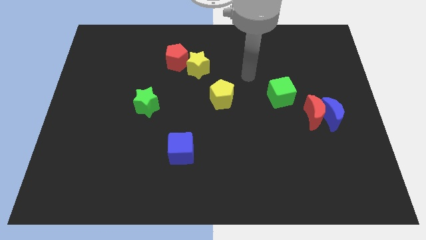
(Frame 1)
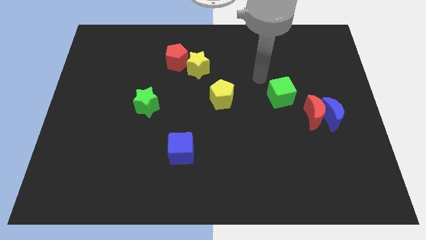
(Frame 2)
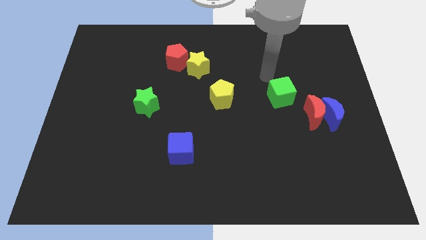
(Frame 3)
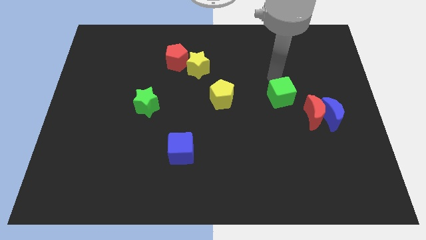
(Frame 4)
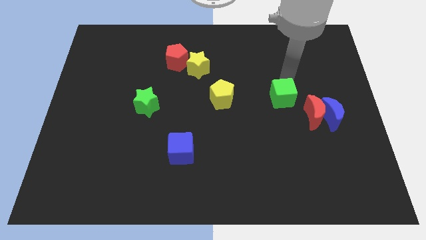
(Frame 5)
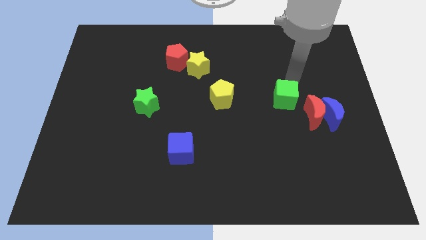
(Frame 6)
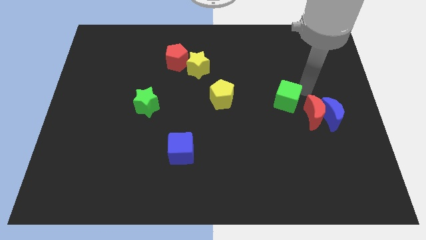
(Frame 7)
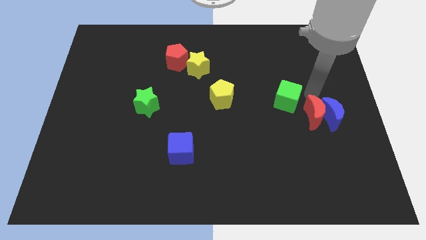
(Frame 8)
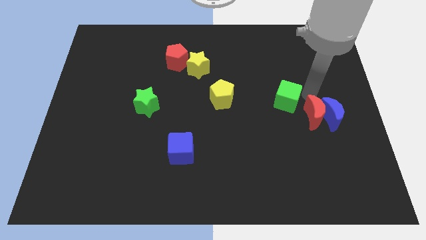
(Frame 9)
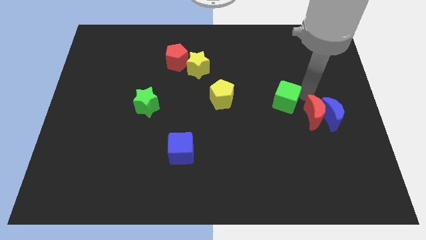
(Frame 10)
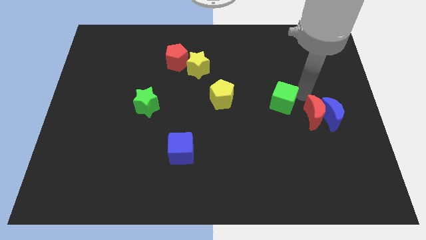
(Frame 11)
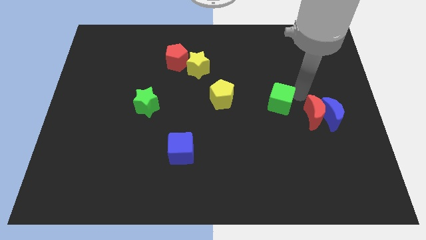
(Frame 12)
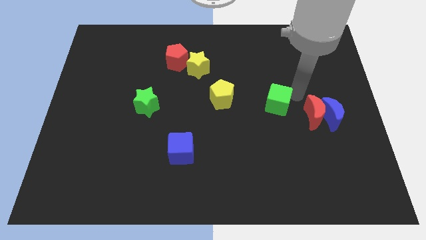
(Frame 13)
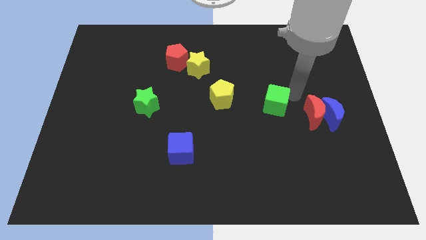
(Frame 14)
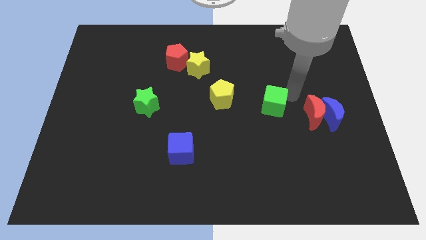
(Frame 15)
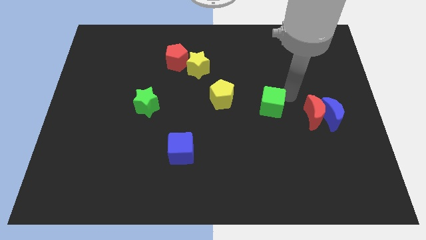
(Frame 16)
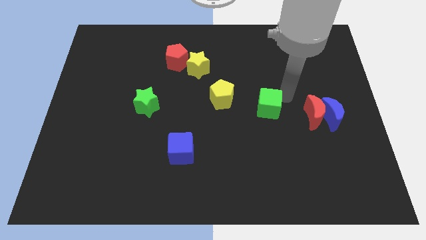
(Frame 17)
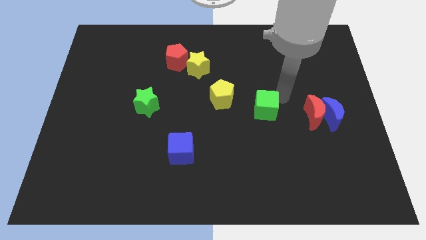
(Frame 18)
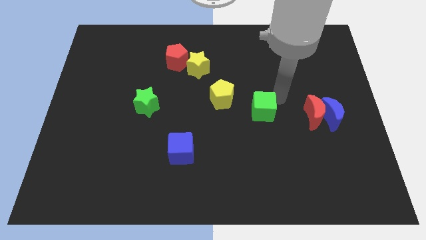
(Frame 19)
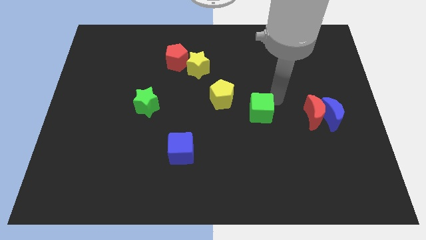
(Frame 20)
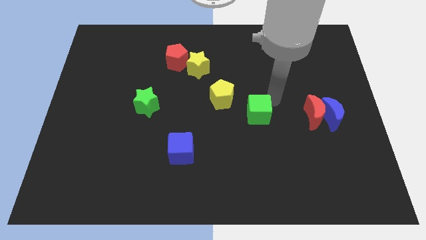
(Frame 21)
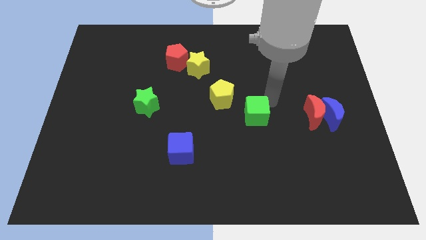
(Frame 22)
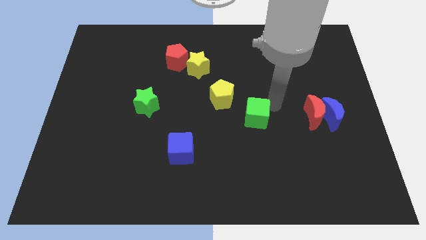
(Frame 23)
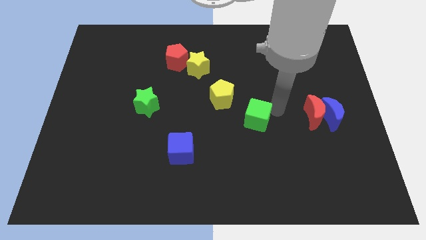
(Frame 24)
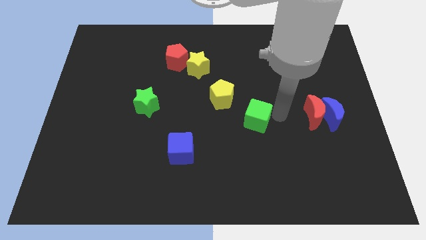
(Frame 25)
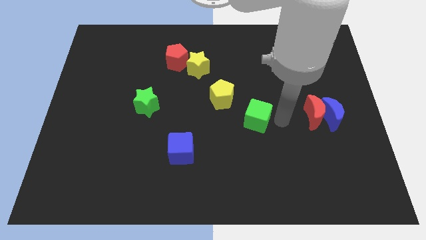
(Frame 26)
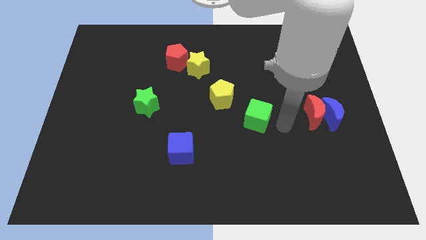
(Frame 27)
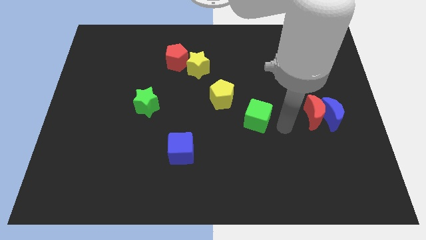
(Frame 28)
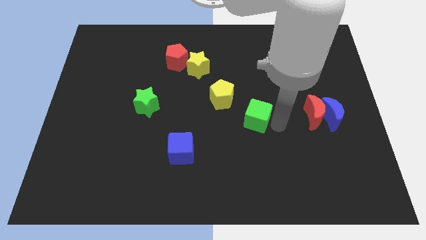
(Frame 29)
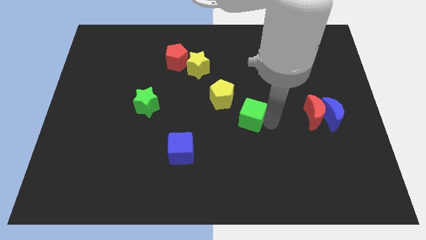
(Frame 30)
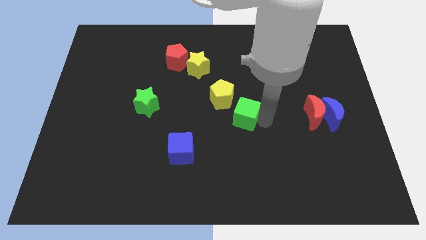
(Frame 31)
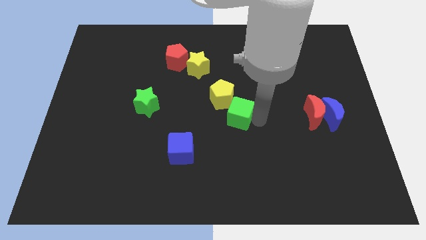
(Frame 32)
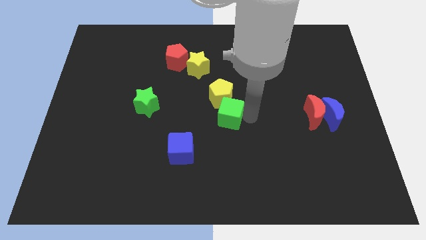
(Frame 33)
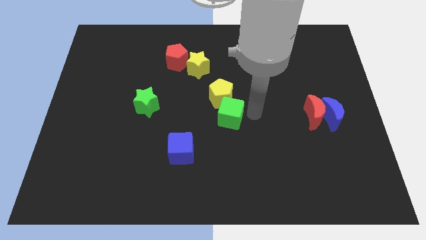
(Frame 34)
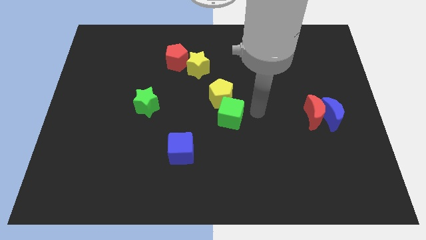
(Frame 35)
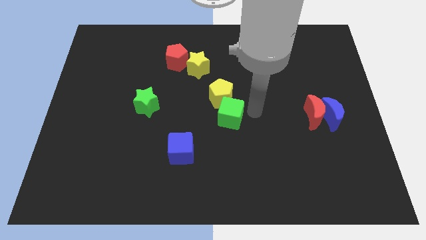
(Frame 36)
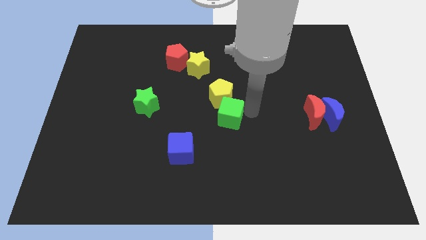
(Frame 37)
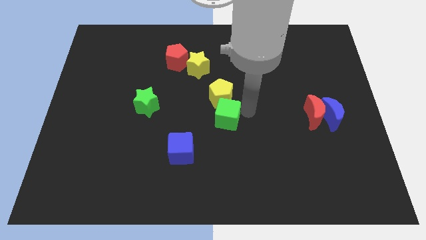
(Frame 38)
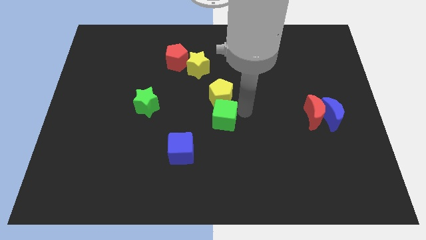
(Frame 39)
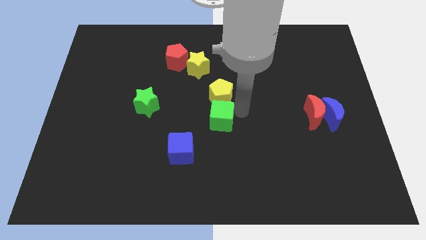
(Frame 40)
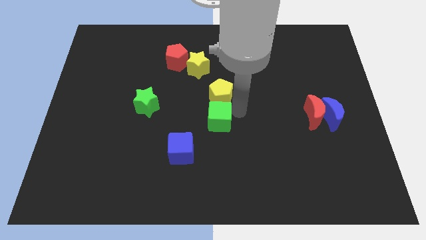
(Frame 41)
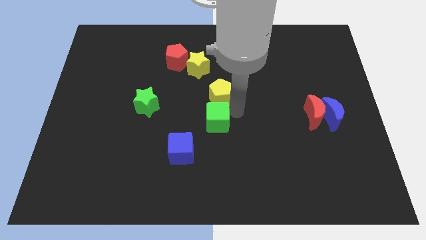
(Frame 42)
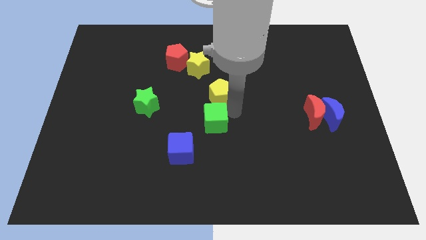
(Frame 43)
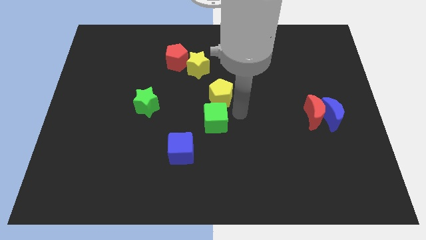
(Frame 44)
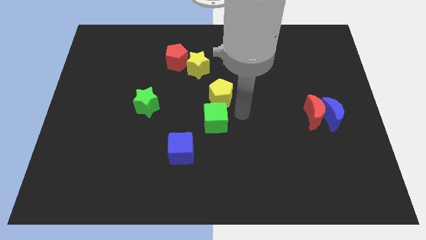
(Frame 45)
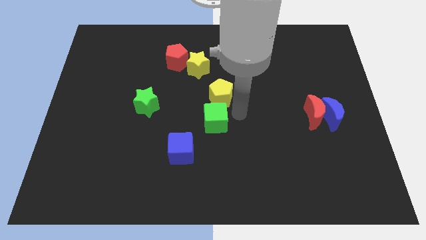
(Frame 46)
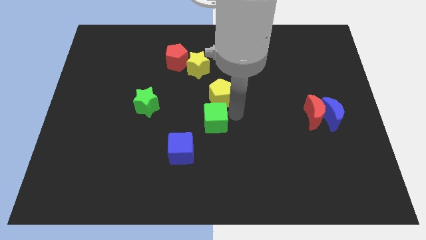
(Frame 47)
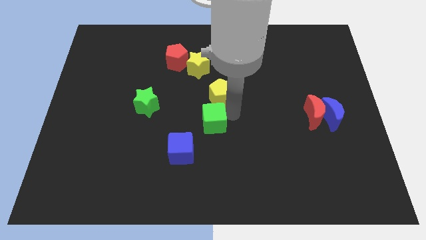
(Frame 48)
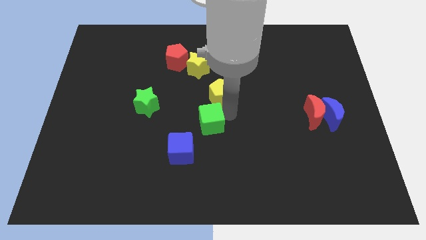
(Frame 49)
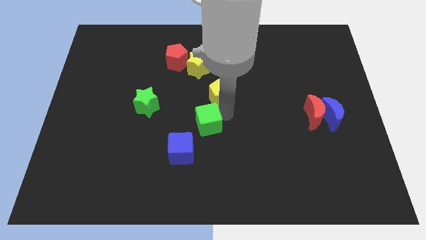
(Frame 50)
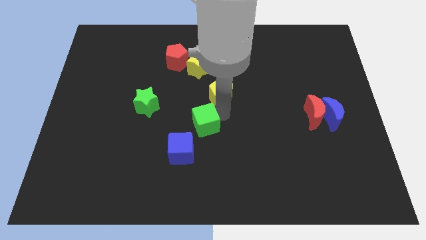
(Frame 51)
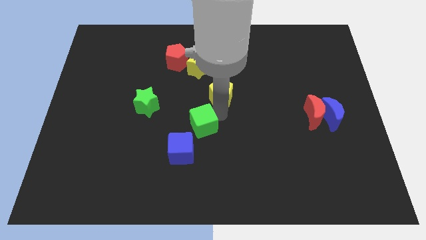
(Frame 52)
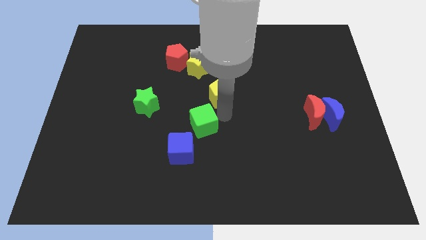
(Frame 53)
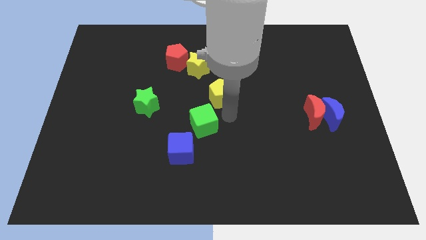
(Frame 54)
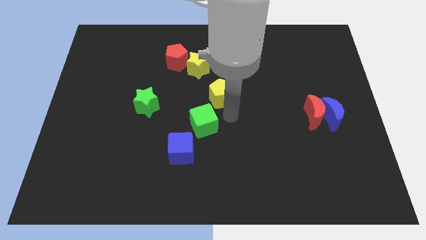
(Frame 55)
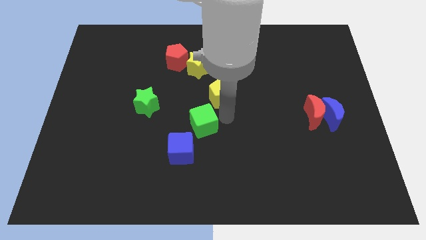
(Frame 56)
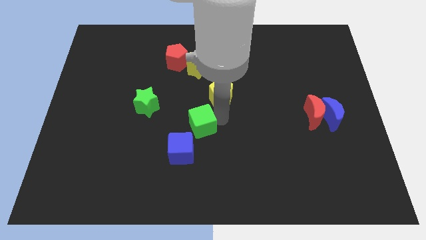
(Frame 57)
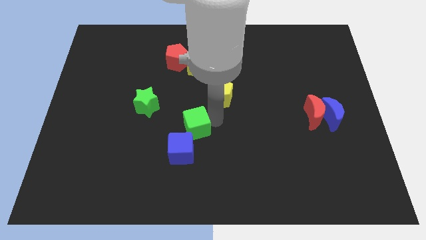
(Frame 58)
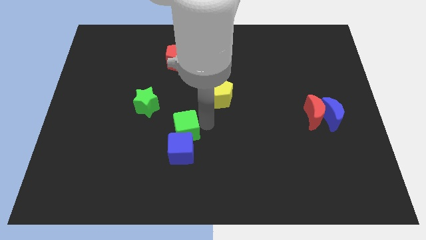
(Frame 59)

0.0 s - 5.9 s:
slide the green cube to the top left of the blue cube
